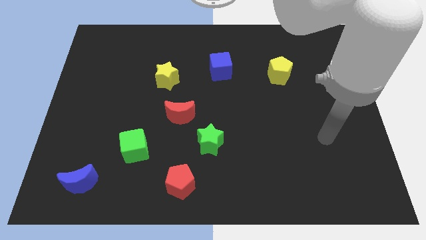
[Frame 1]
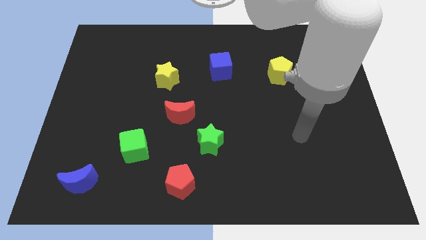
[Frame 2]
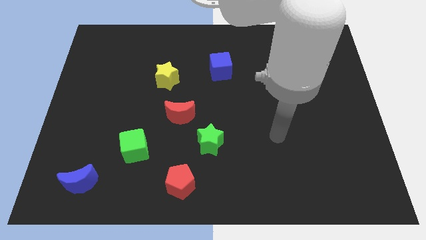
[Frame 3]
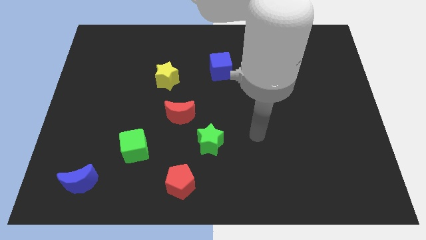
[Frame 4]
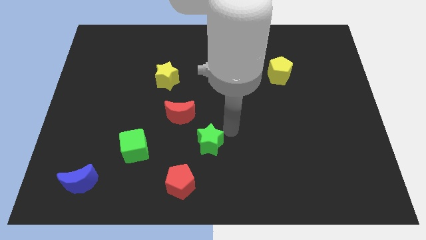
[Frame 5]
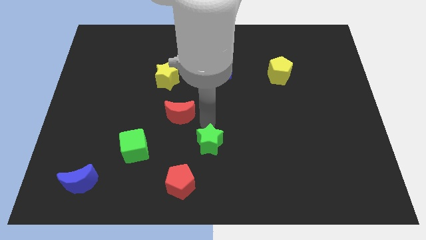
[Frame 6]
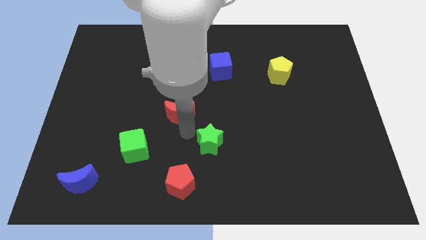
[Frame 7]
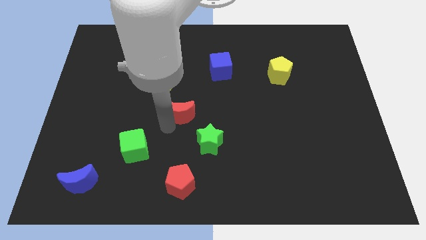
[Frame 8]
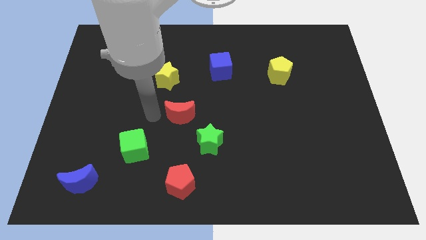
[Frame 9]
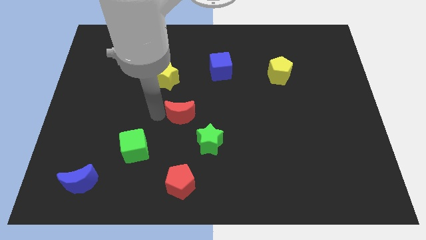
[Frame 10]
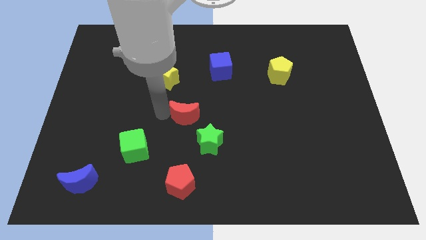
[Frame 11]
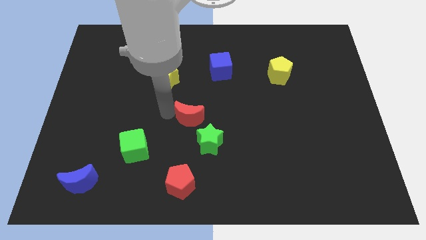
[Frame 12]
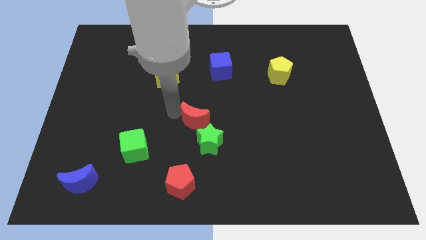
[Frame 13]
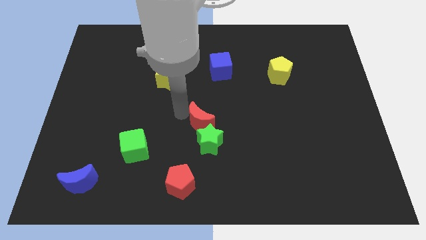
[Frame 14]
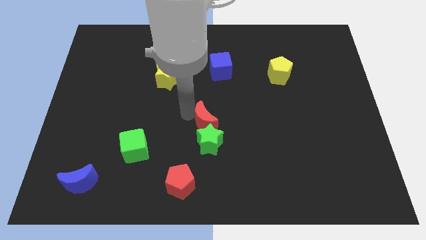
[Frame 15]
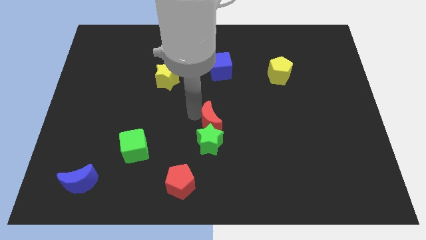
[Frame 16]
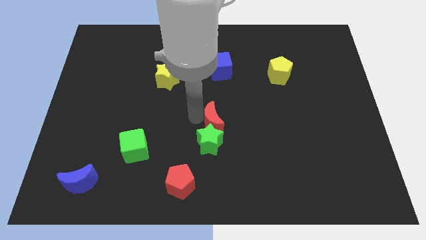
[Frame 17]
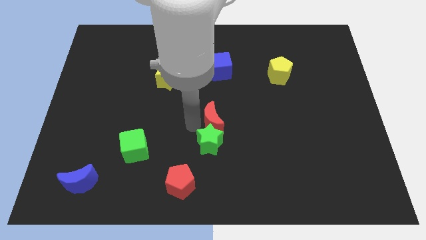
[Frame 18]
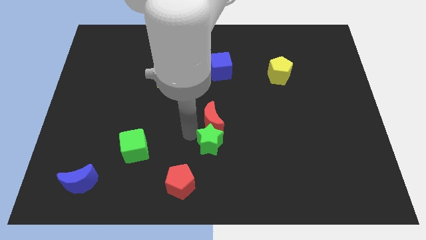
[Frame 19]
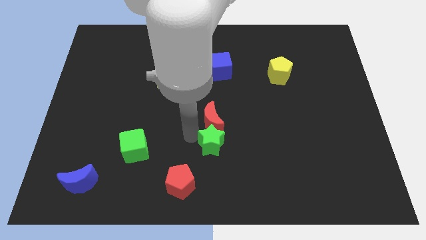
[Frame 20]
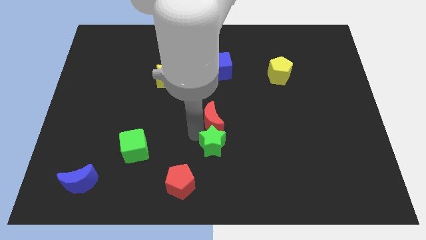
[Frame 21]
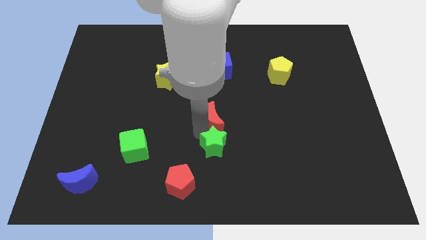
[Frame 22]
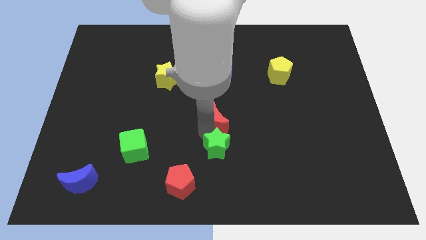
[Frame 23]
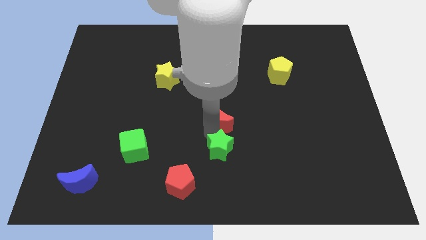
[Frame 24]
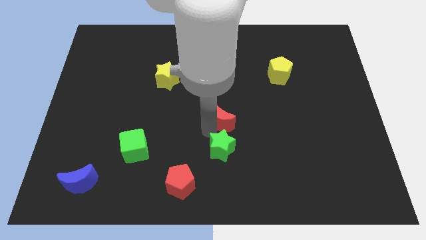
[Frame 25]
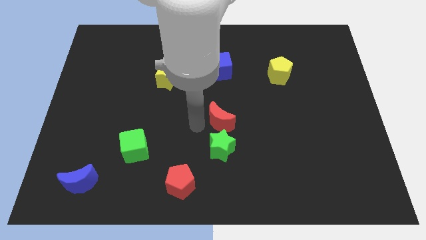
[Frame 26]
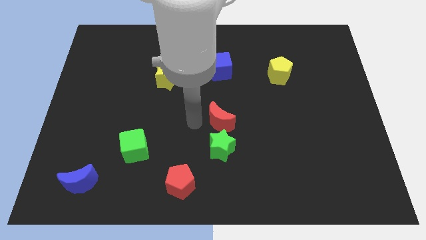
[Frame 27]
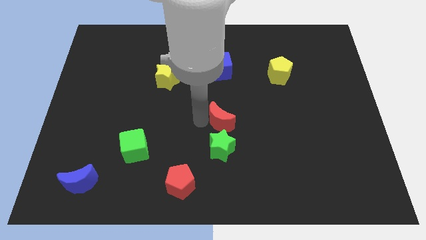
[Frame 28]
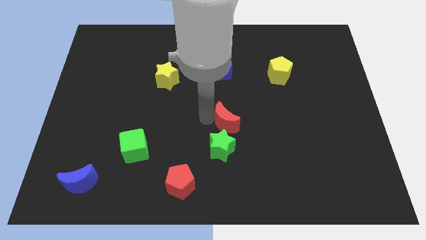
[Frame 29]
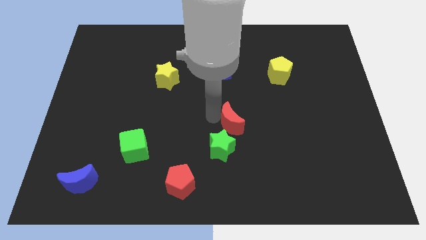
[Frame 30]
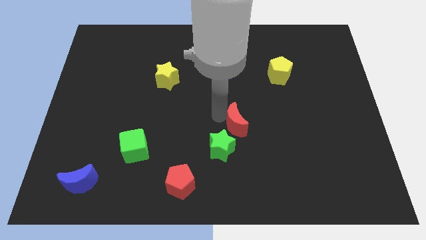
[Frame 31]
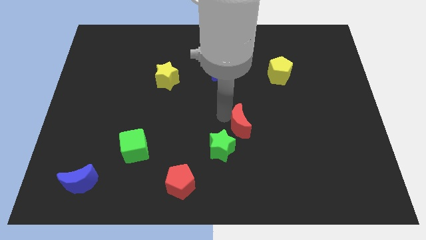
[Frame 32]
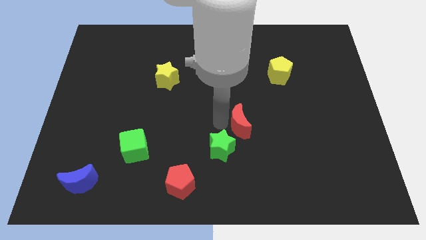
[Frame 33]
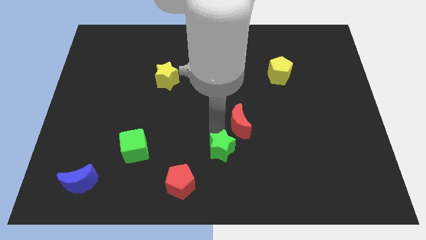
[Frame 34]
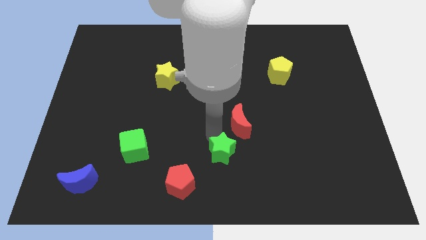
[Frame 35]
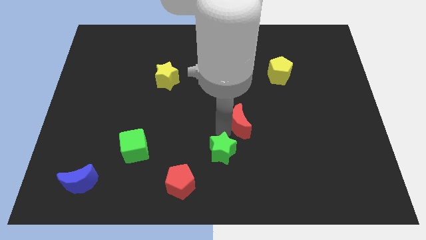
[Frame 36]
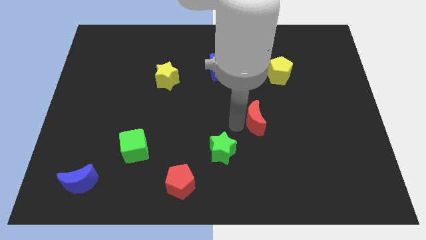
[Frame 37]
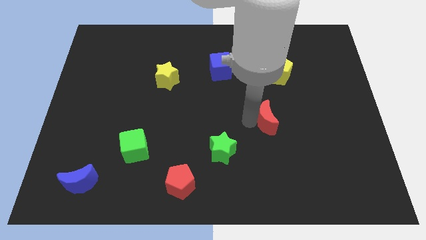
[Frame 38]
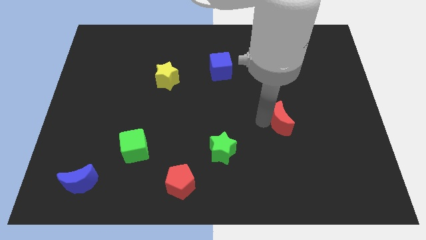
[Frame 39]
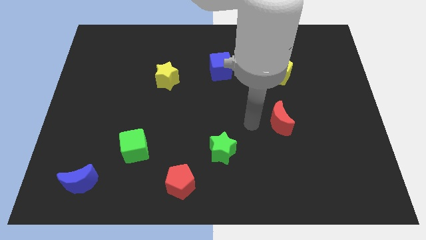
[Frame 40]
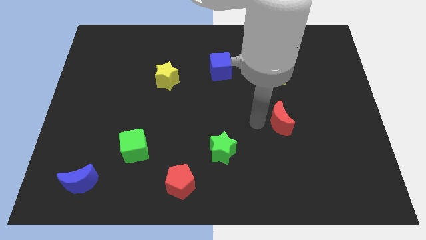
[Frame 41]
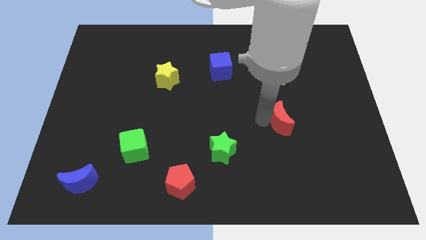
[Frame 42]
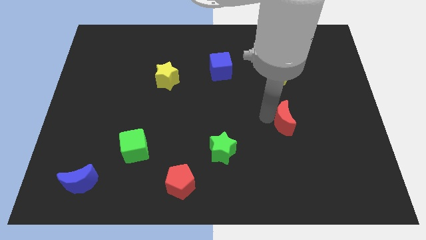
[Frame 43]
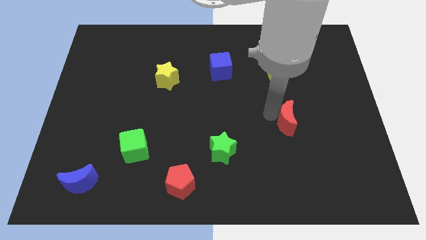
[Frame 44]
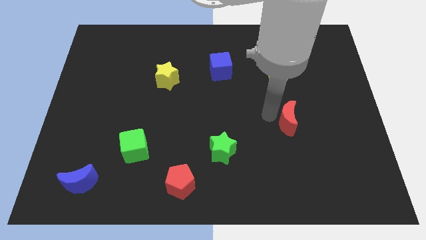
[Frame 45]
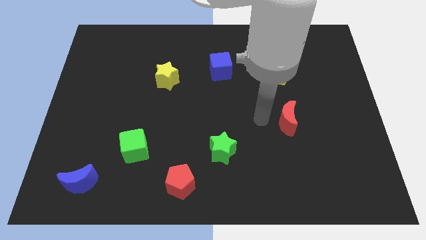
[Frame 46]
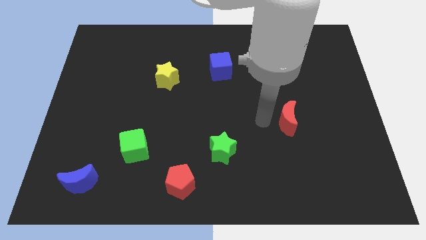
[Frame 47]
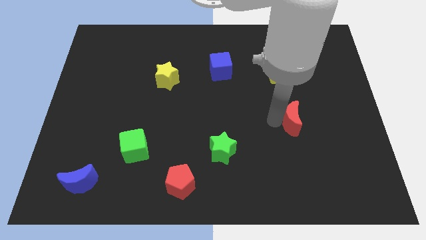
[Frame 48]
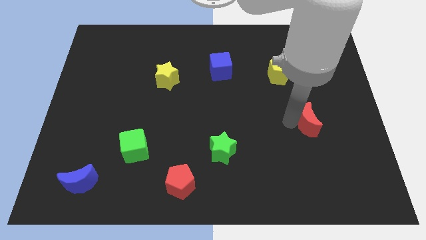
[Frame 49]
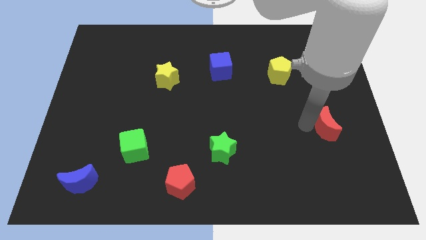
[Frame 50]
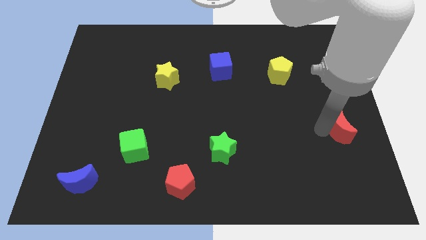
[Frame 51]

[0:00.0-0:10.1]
put the red moon to the right side

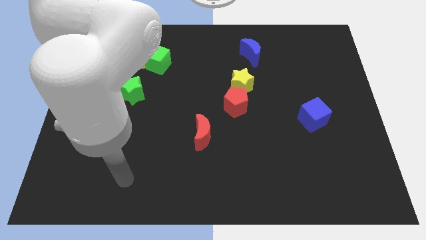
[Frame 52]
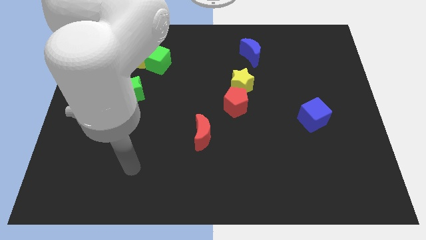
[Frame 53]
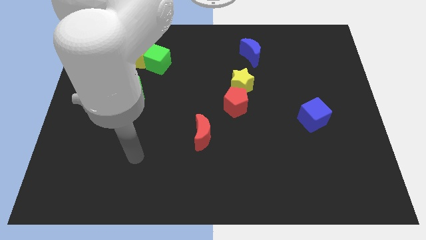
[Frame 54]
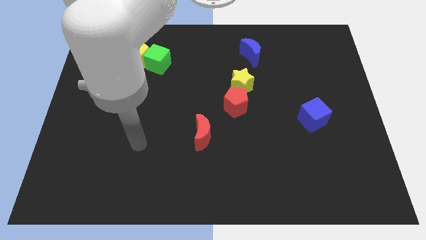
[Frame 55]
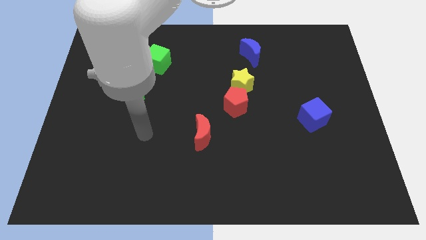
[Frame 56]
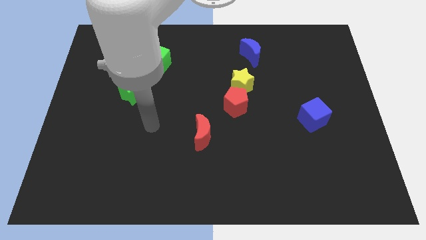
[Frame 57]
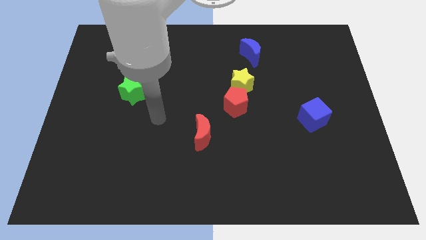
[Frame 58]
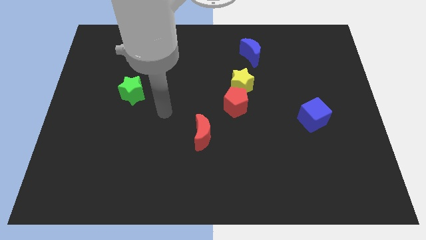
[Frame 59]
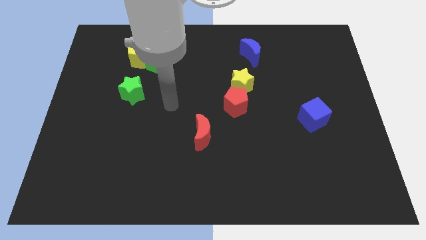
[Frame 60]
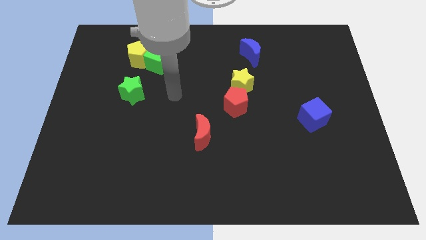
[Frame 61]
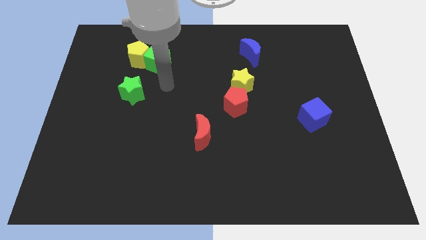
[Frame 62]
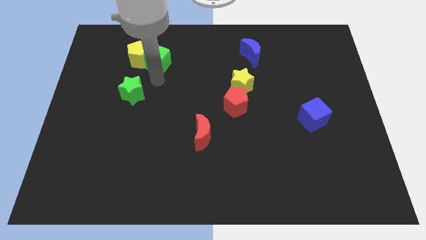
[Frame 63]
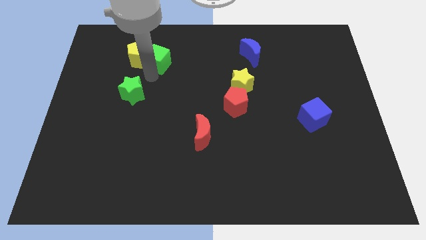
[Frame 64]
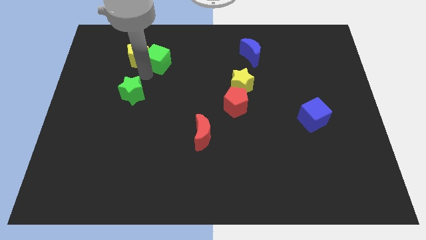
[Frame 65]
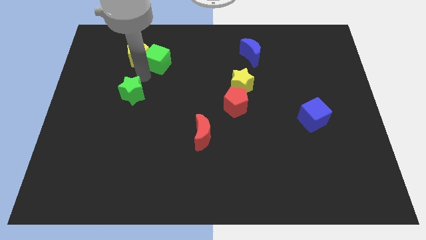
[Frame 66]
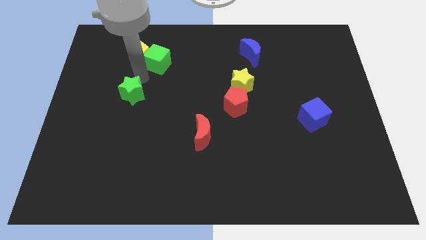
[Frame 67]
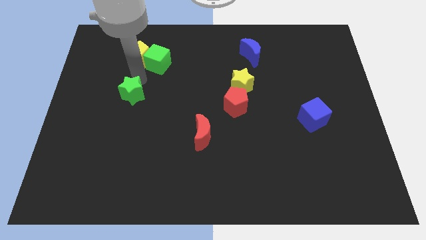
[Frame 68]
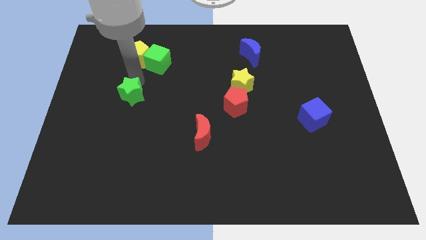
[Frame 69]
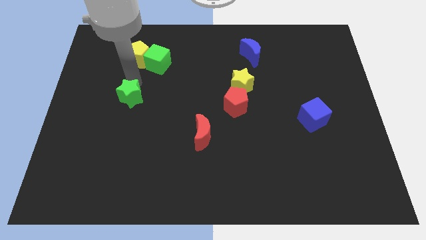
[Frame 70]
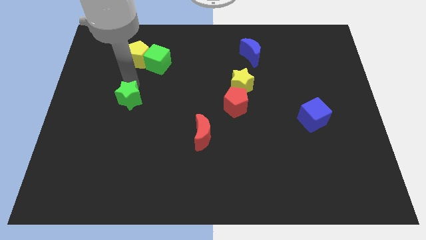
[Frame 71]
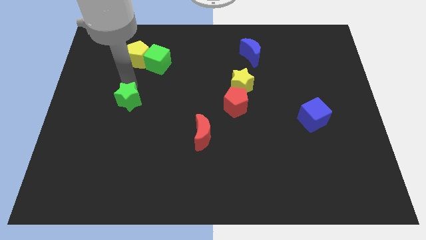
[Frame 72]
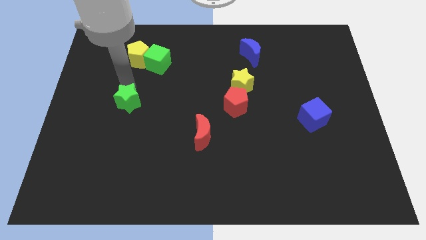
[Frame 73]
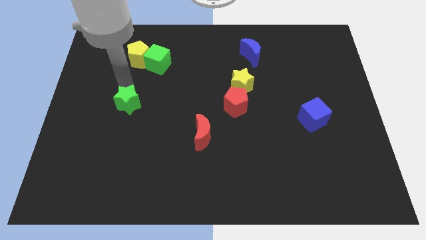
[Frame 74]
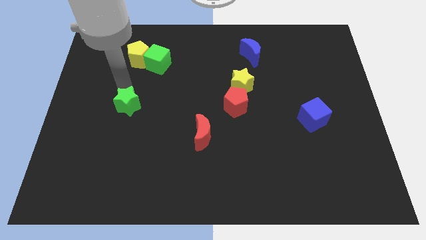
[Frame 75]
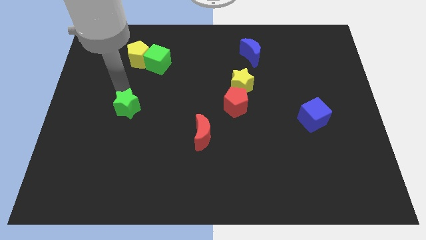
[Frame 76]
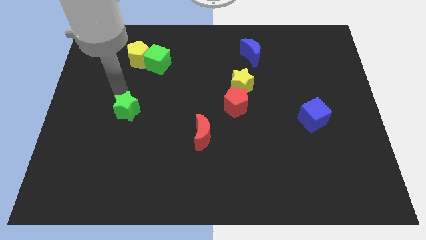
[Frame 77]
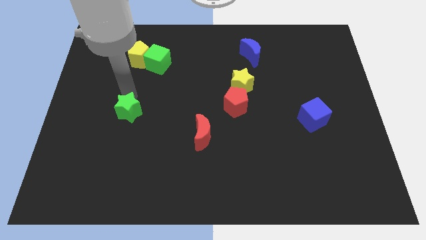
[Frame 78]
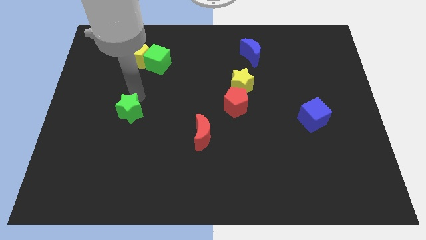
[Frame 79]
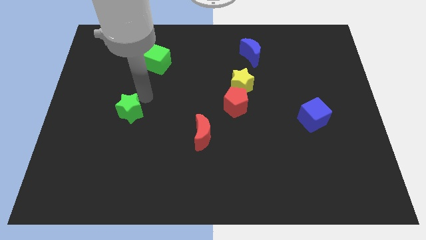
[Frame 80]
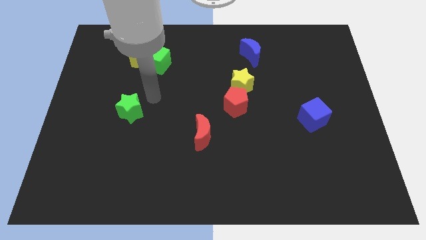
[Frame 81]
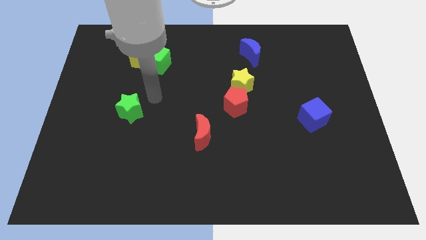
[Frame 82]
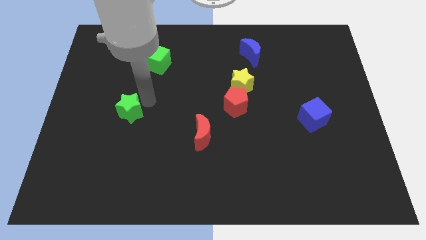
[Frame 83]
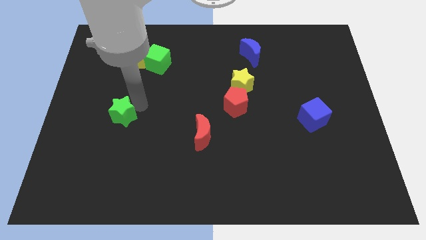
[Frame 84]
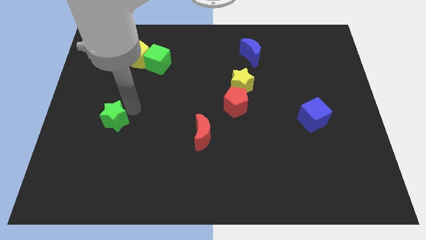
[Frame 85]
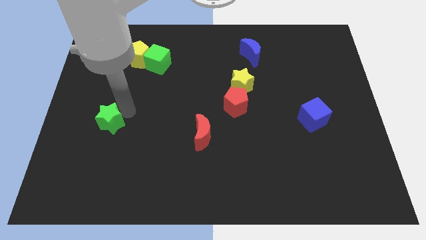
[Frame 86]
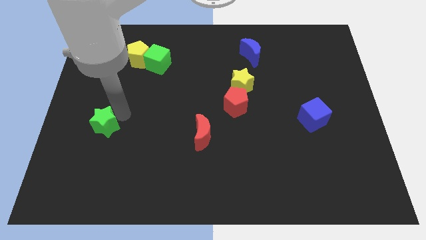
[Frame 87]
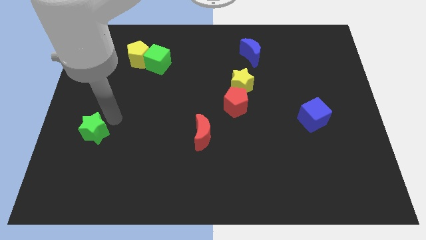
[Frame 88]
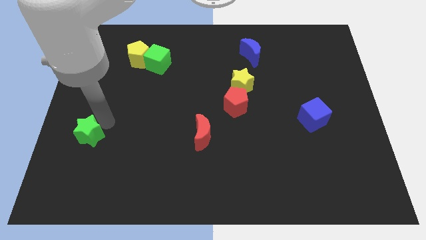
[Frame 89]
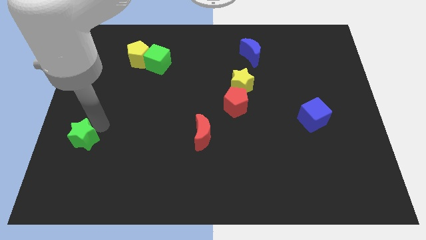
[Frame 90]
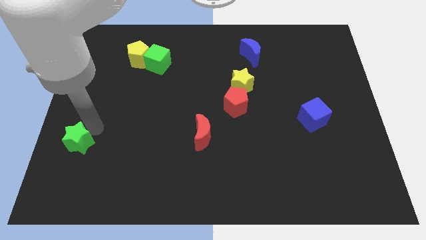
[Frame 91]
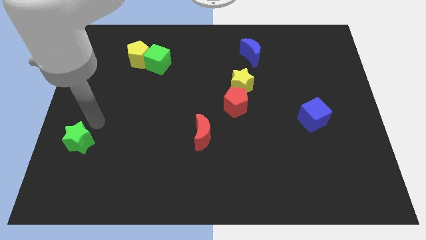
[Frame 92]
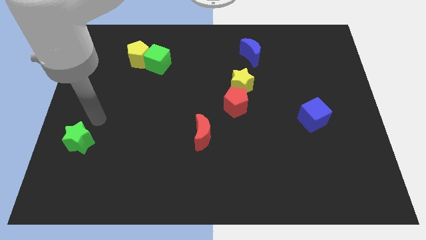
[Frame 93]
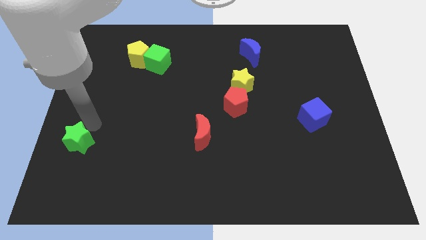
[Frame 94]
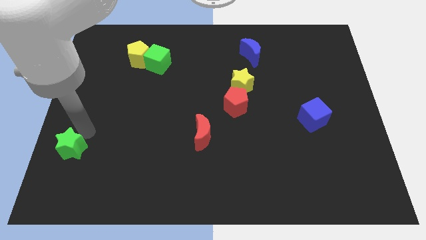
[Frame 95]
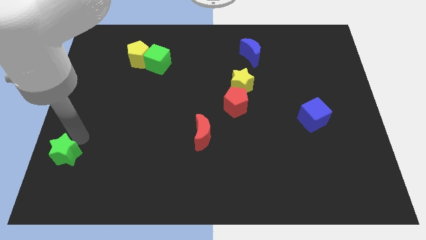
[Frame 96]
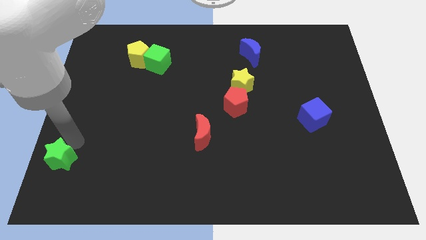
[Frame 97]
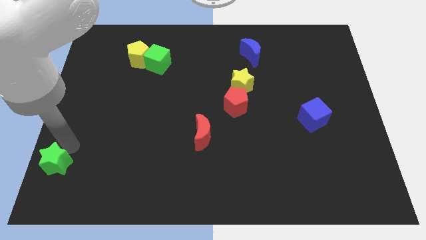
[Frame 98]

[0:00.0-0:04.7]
push the green star to the bottom left corner
